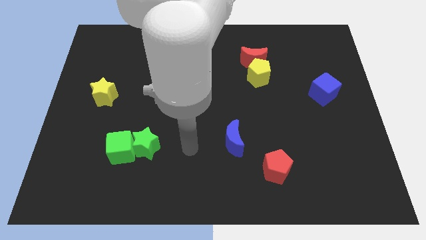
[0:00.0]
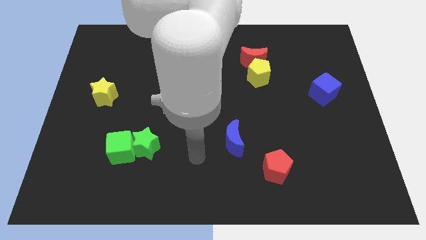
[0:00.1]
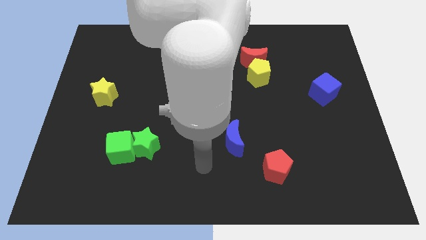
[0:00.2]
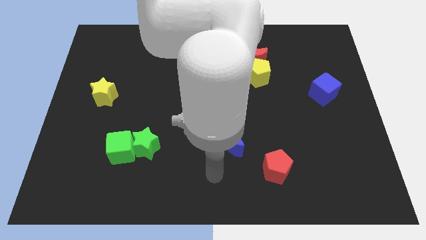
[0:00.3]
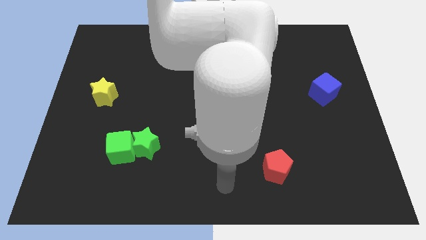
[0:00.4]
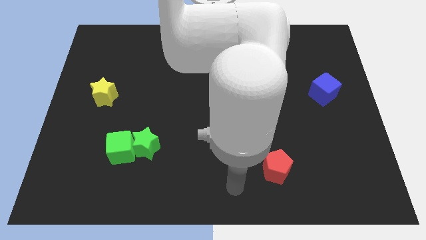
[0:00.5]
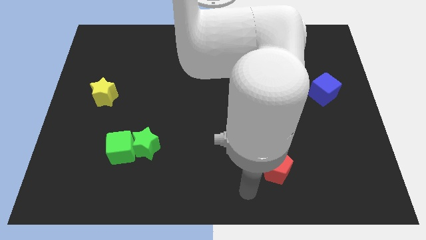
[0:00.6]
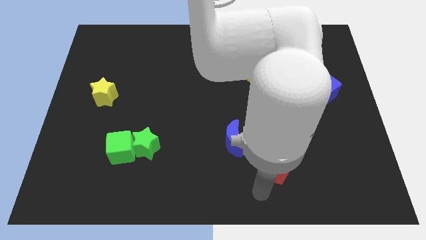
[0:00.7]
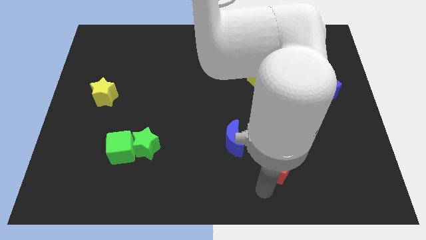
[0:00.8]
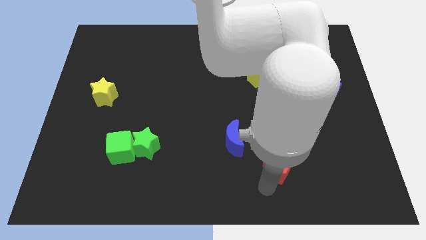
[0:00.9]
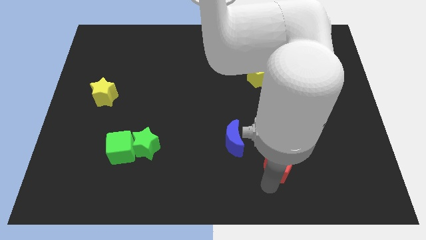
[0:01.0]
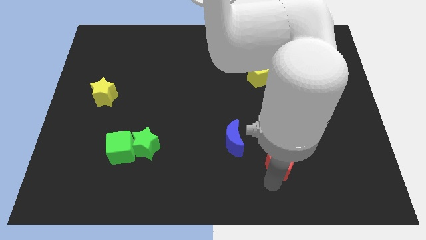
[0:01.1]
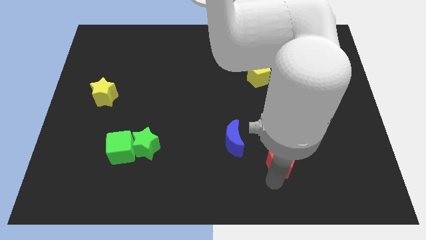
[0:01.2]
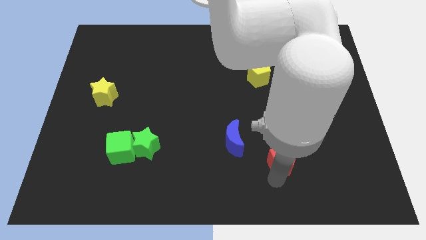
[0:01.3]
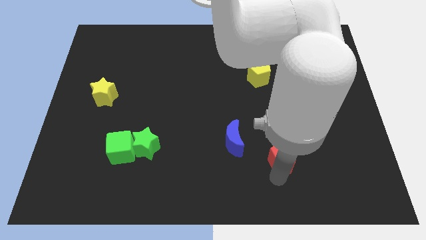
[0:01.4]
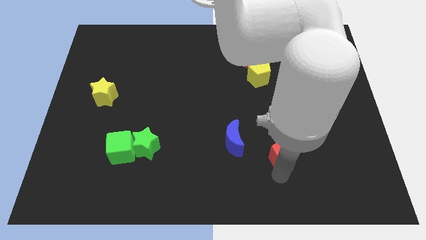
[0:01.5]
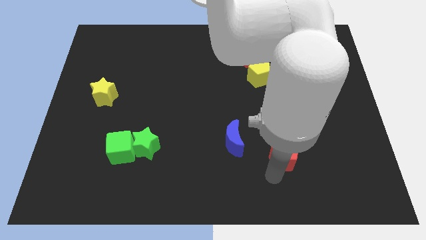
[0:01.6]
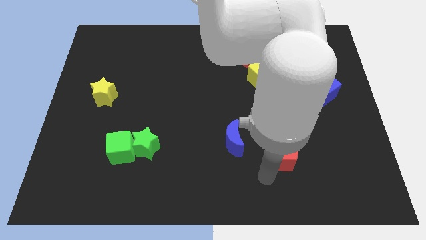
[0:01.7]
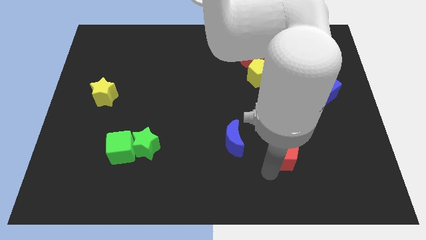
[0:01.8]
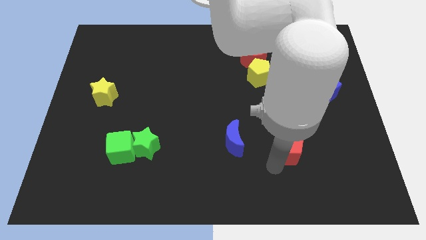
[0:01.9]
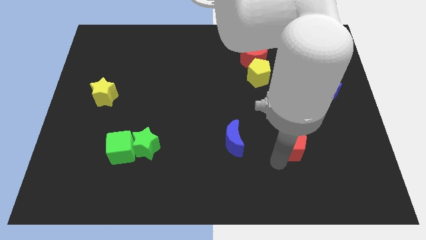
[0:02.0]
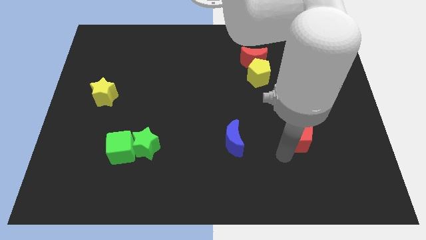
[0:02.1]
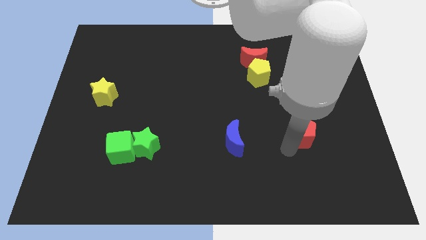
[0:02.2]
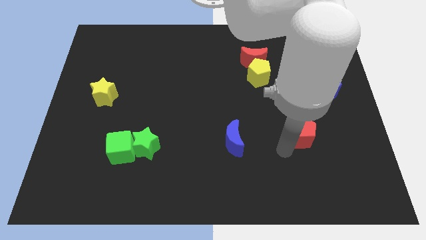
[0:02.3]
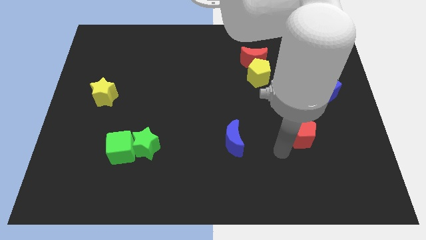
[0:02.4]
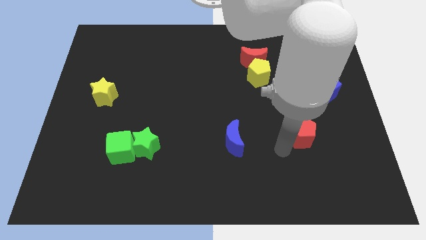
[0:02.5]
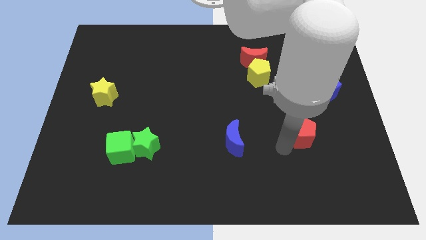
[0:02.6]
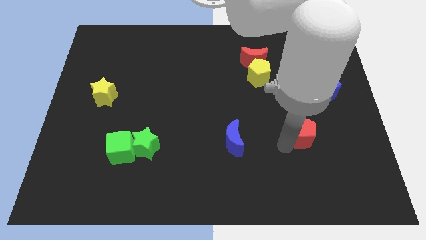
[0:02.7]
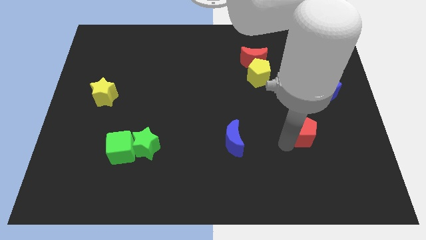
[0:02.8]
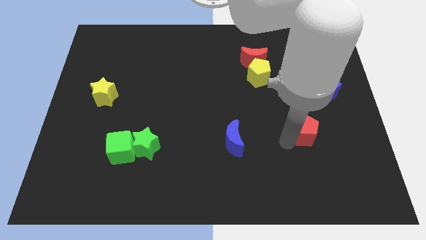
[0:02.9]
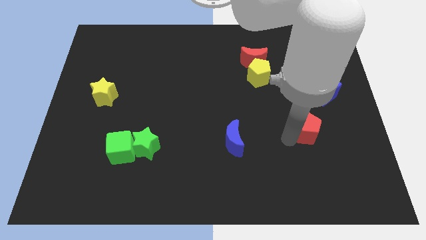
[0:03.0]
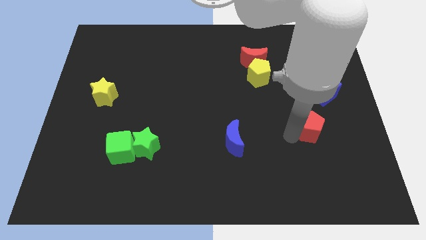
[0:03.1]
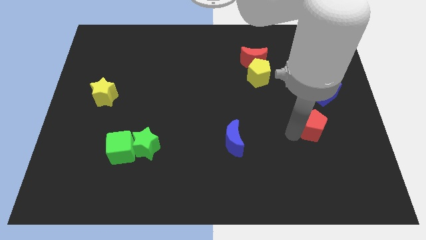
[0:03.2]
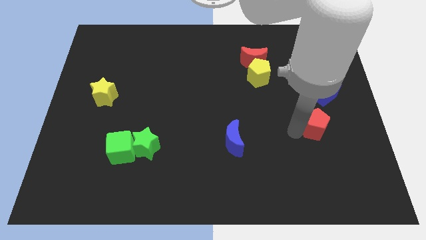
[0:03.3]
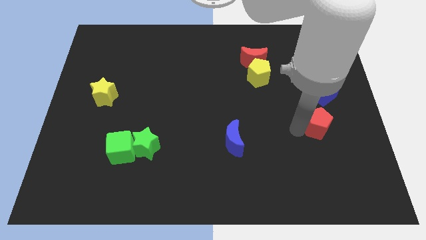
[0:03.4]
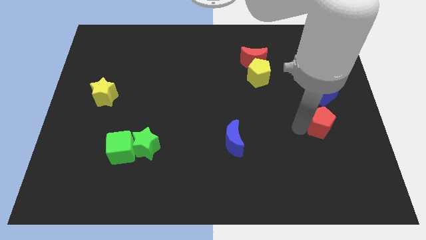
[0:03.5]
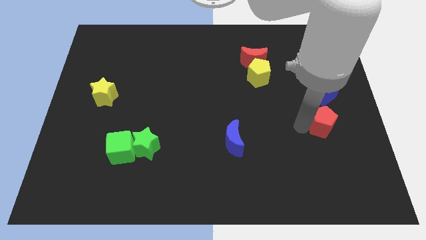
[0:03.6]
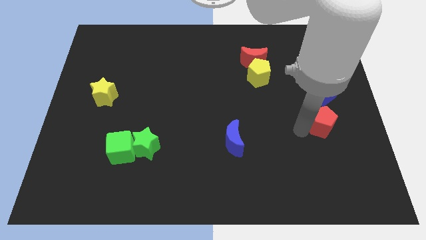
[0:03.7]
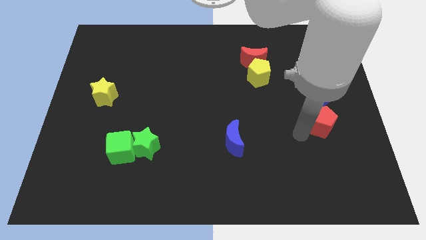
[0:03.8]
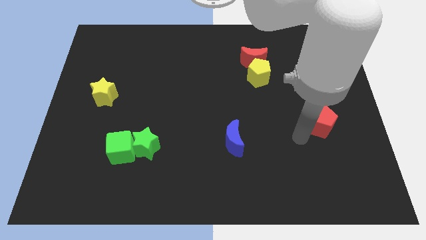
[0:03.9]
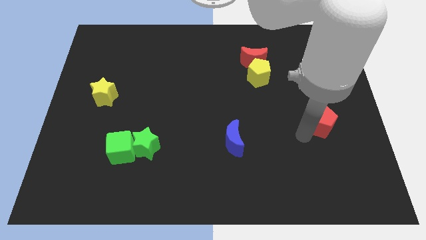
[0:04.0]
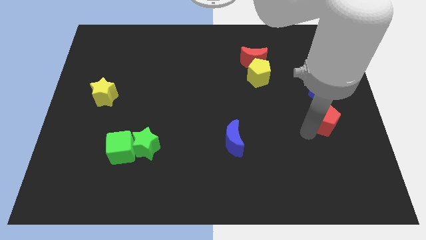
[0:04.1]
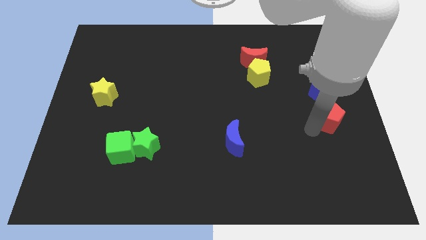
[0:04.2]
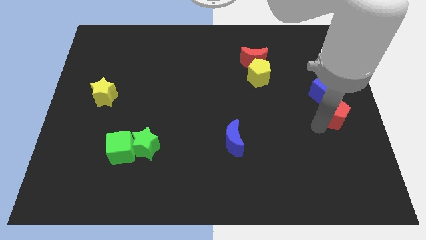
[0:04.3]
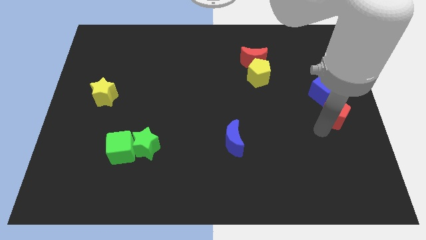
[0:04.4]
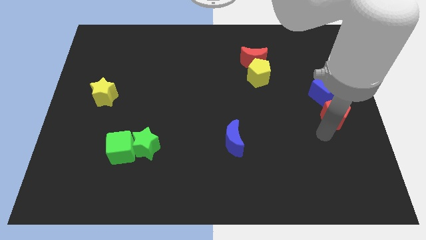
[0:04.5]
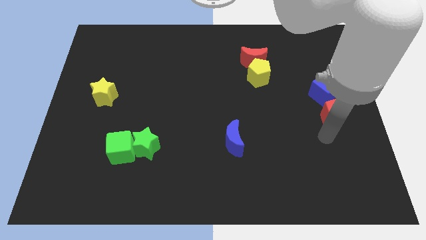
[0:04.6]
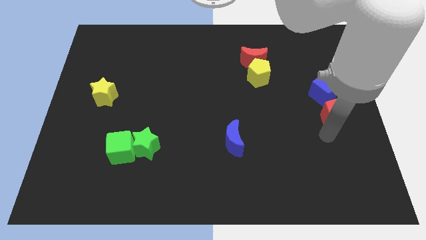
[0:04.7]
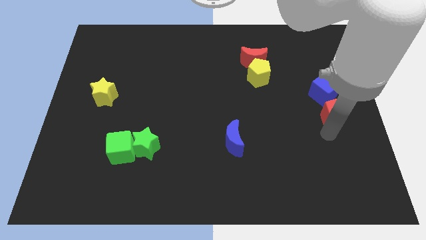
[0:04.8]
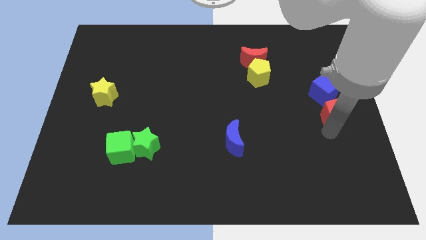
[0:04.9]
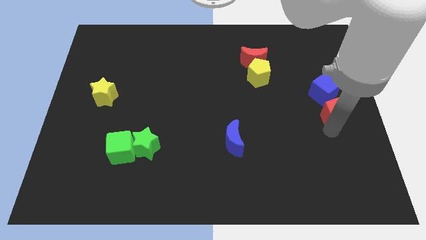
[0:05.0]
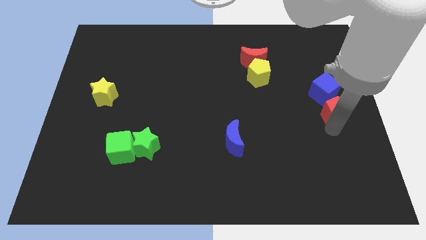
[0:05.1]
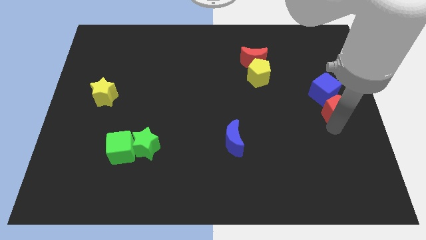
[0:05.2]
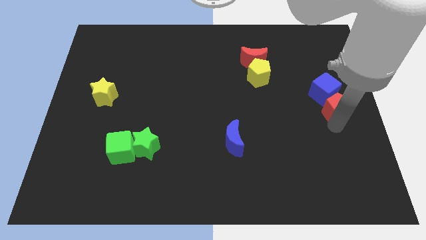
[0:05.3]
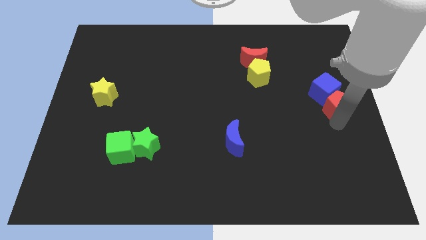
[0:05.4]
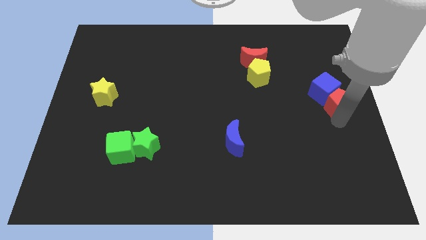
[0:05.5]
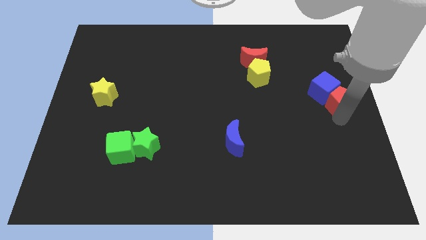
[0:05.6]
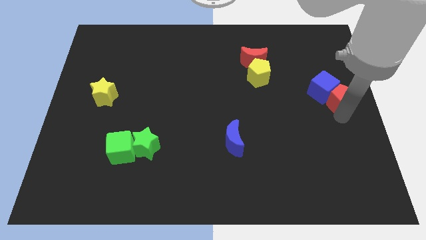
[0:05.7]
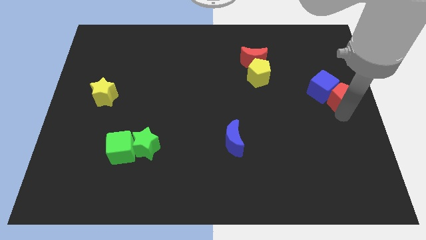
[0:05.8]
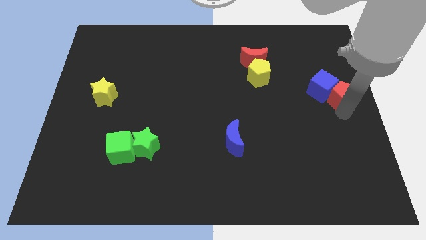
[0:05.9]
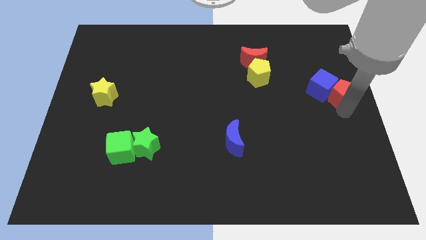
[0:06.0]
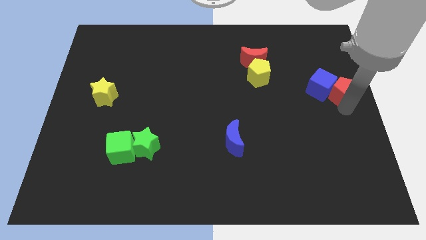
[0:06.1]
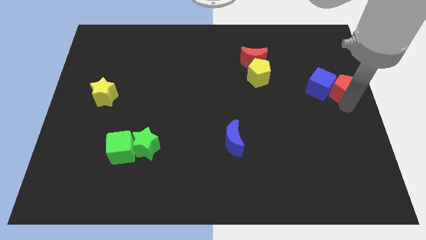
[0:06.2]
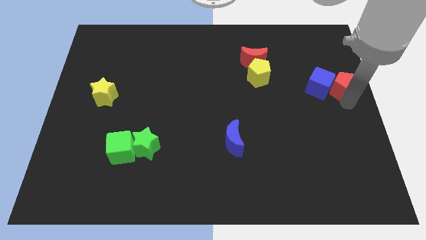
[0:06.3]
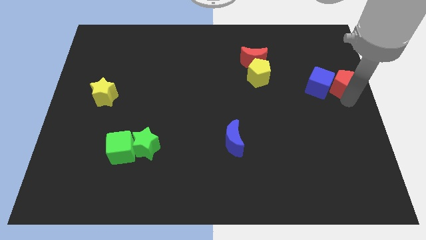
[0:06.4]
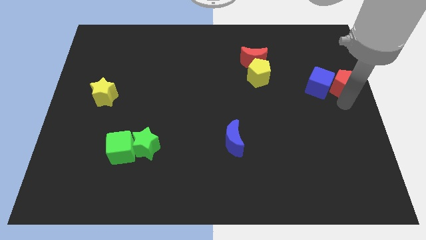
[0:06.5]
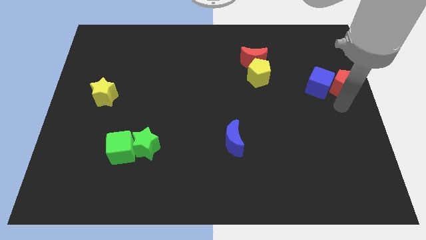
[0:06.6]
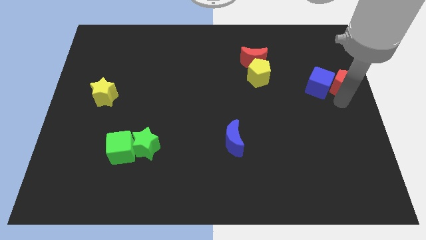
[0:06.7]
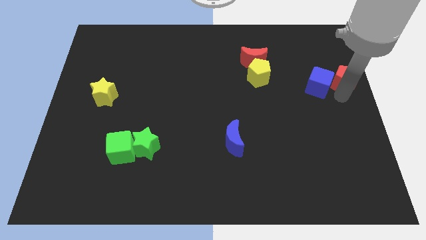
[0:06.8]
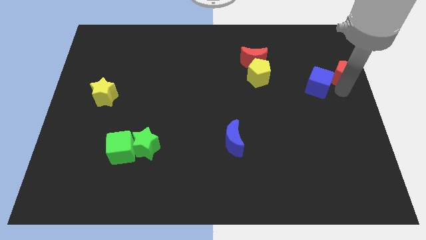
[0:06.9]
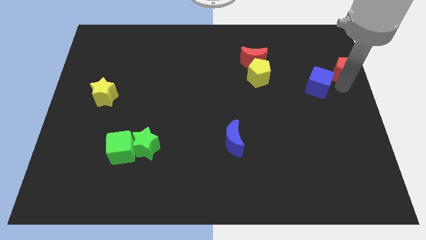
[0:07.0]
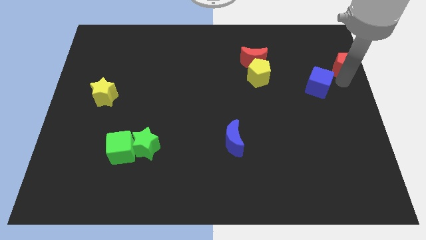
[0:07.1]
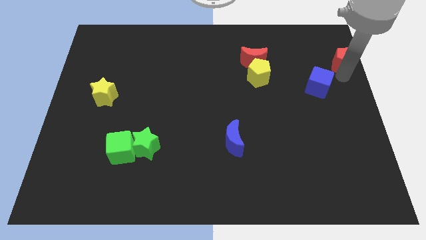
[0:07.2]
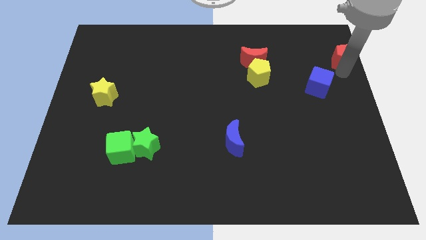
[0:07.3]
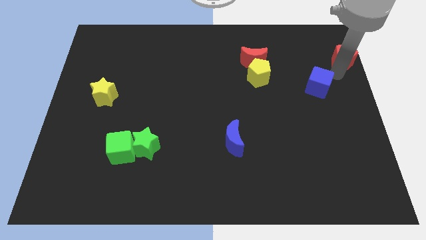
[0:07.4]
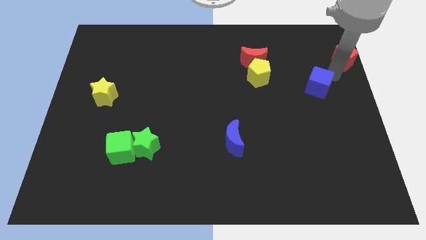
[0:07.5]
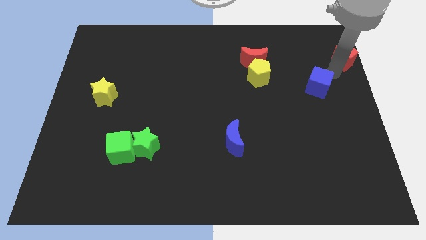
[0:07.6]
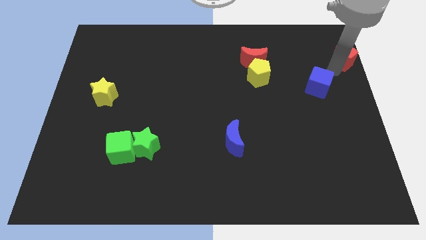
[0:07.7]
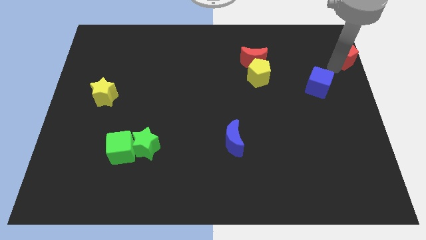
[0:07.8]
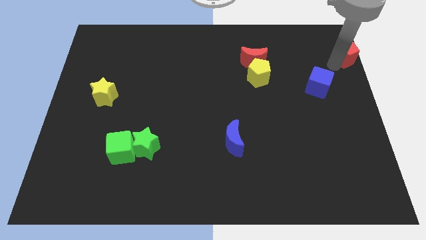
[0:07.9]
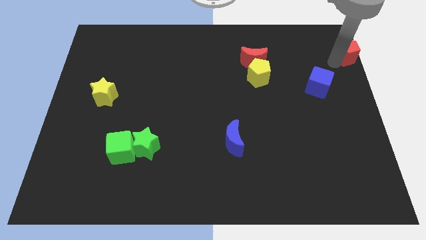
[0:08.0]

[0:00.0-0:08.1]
slide the red pentagon to the upper right corner
